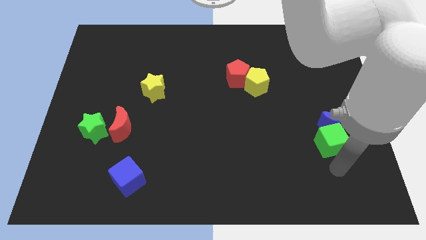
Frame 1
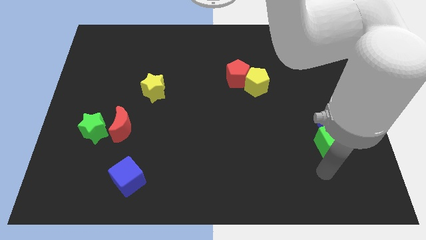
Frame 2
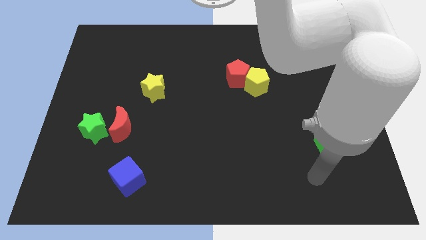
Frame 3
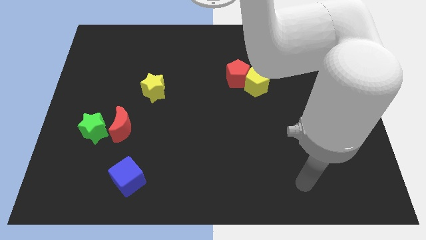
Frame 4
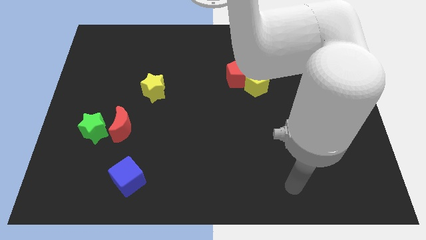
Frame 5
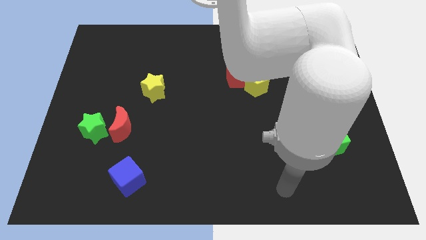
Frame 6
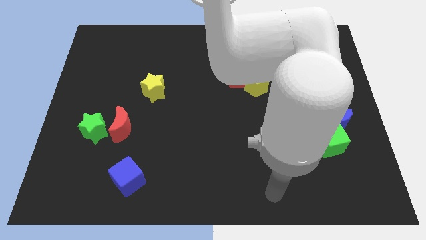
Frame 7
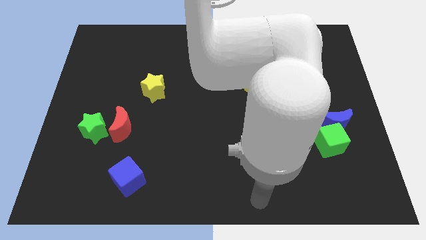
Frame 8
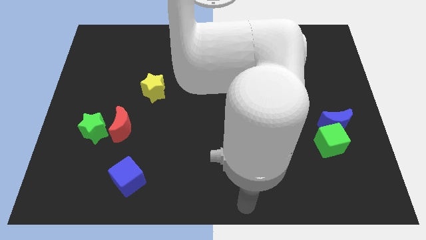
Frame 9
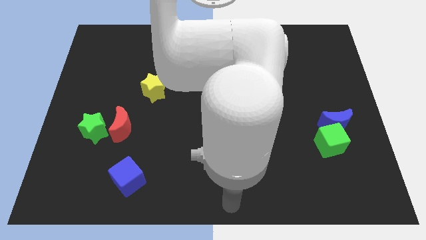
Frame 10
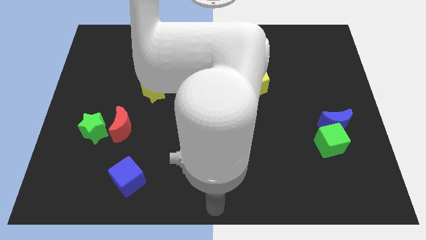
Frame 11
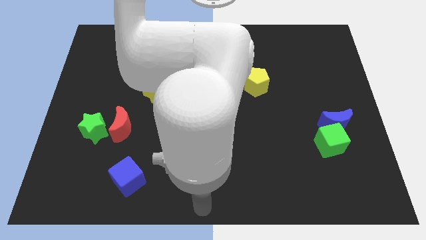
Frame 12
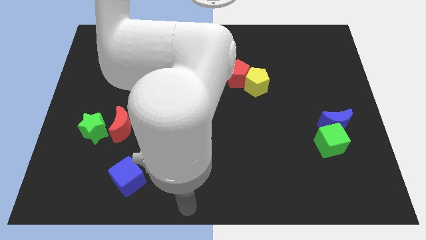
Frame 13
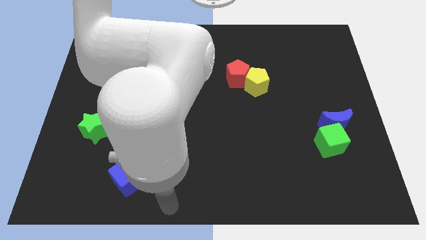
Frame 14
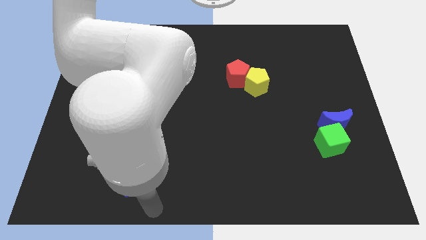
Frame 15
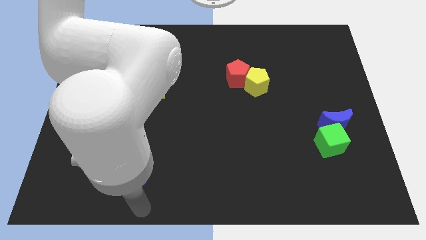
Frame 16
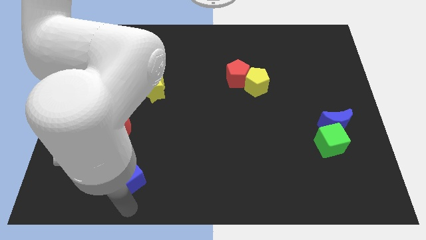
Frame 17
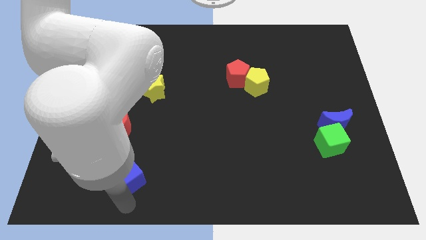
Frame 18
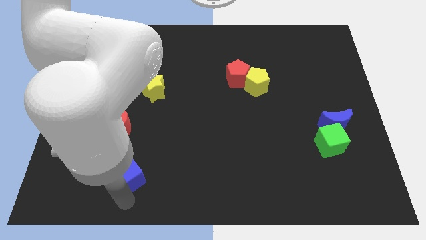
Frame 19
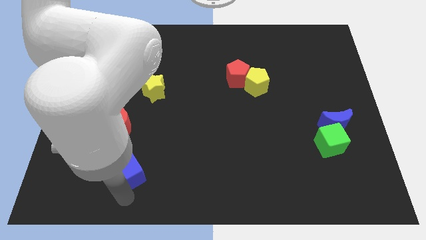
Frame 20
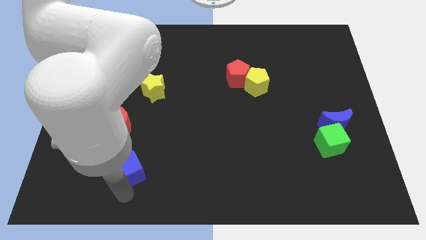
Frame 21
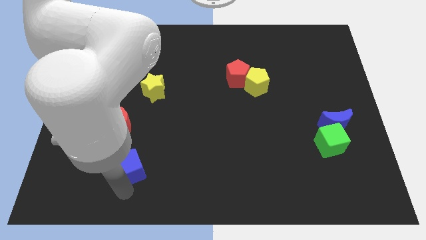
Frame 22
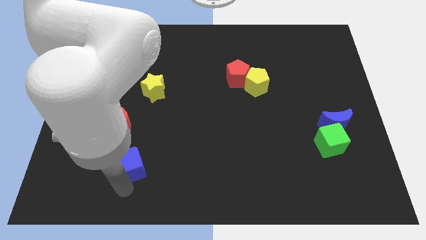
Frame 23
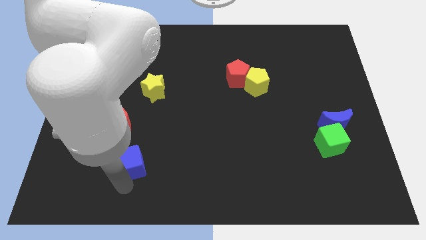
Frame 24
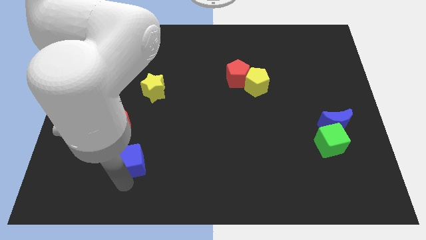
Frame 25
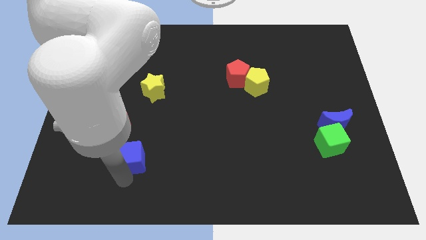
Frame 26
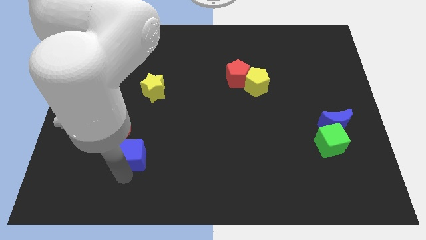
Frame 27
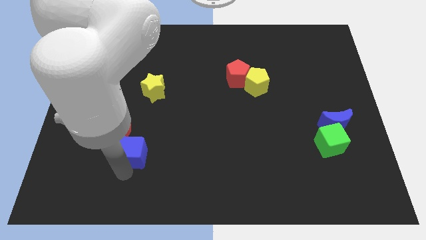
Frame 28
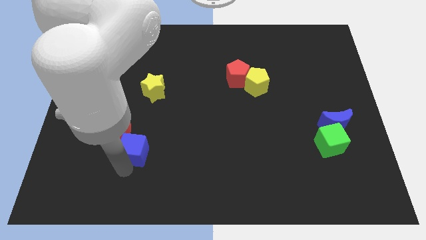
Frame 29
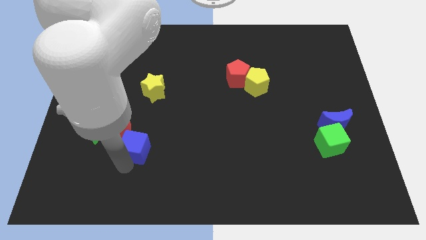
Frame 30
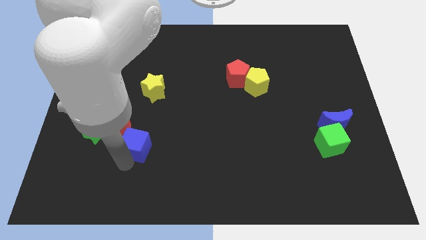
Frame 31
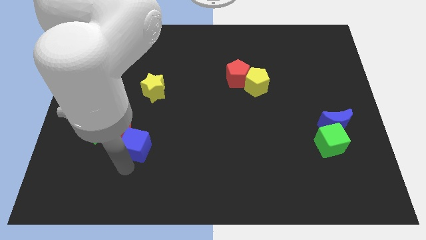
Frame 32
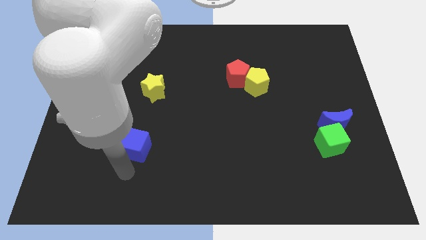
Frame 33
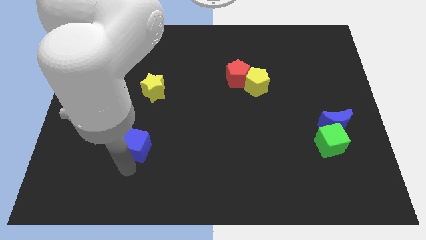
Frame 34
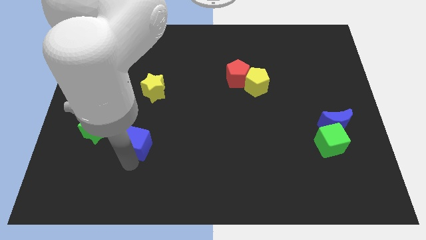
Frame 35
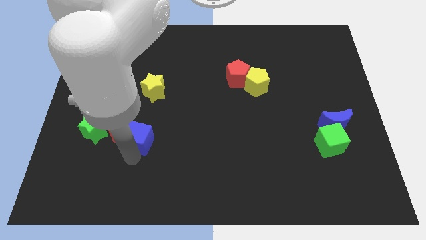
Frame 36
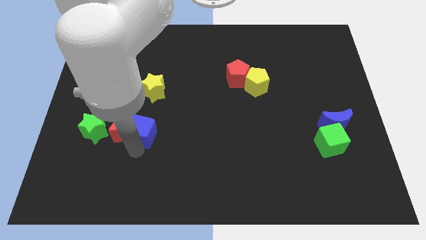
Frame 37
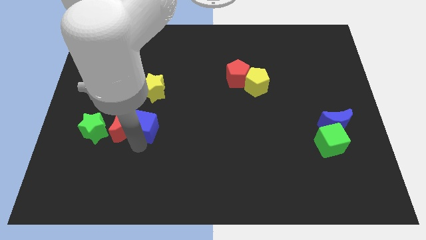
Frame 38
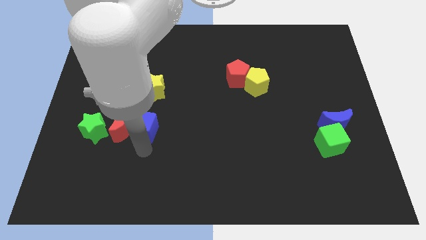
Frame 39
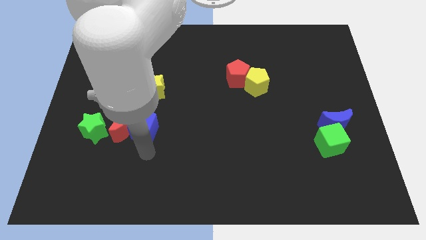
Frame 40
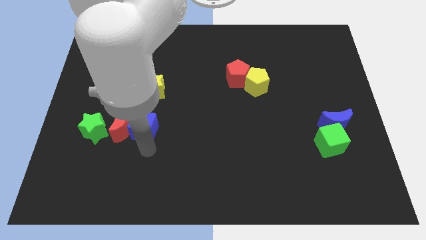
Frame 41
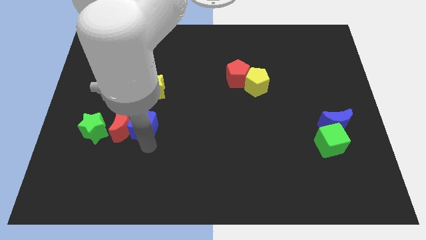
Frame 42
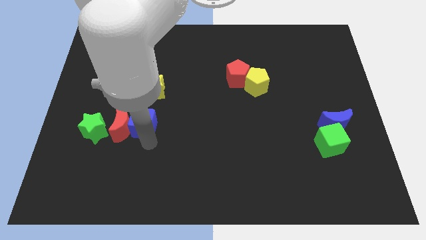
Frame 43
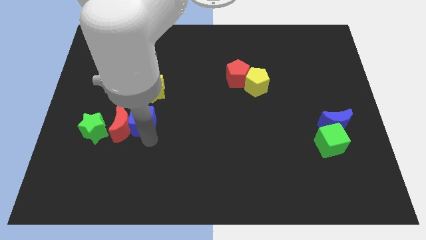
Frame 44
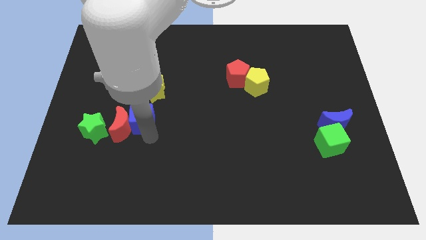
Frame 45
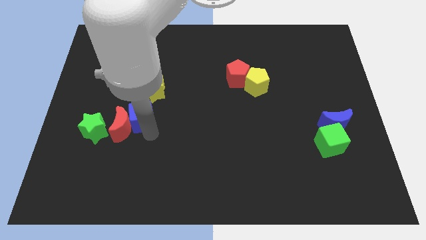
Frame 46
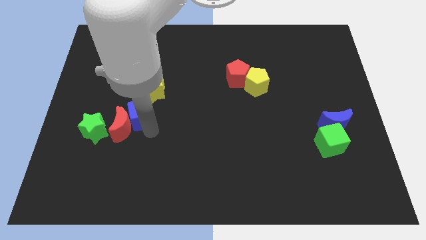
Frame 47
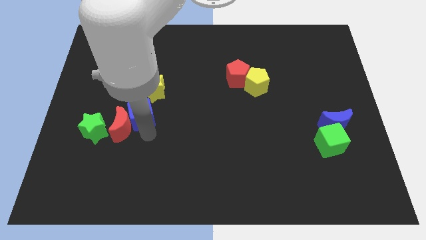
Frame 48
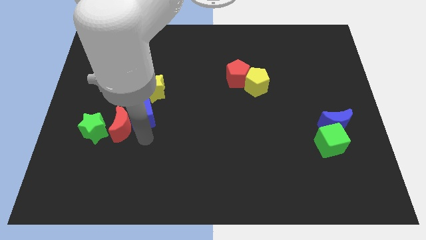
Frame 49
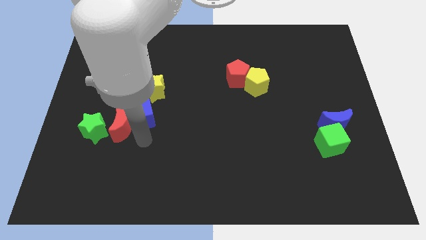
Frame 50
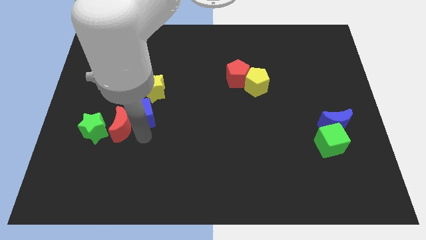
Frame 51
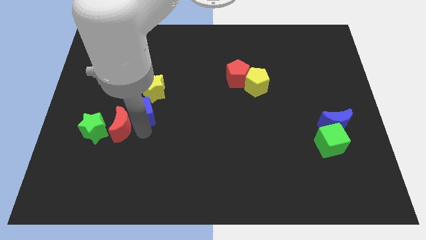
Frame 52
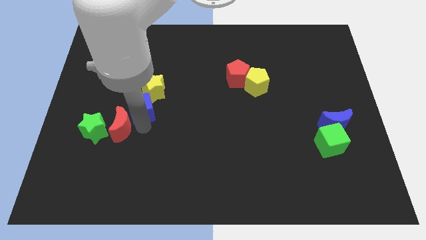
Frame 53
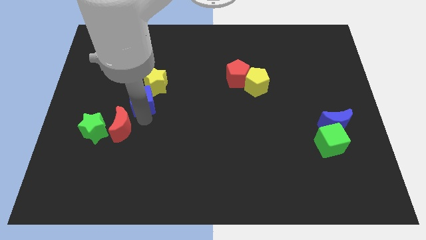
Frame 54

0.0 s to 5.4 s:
move the blue cube upwards

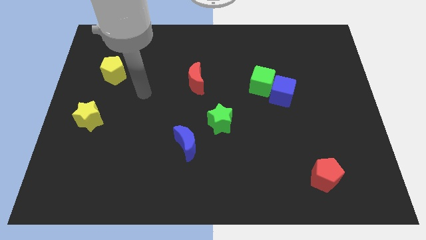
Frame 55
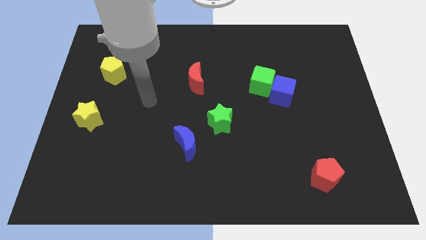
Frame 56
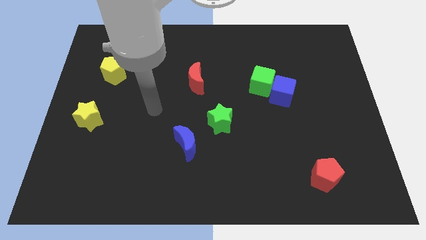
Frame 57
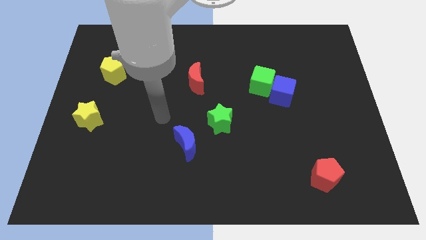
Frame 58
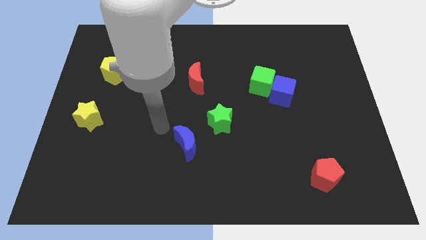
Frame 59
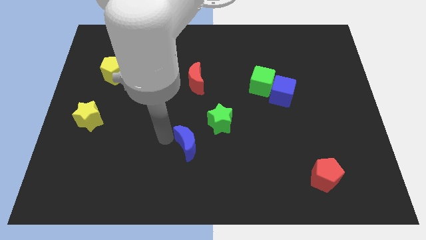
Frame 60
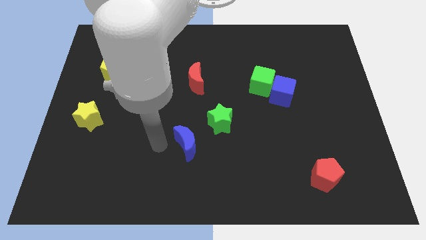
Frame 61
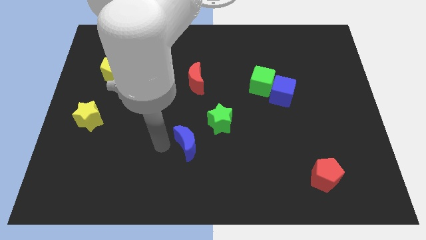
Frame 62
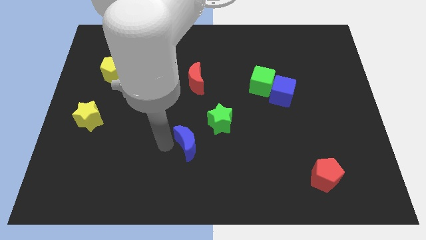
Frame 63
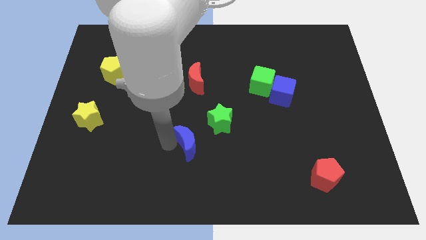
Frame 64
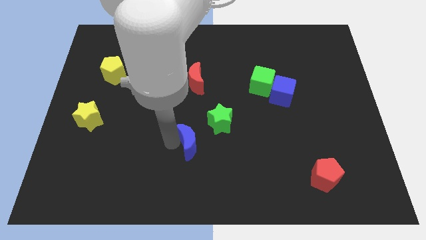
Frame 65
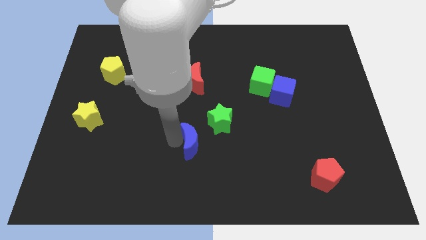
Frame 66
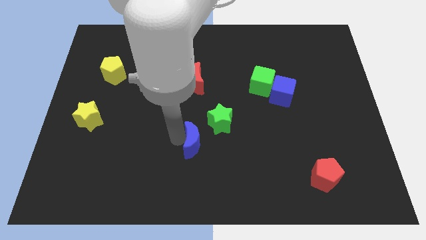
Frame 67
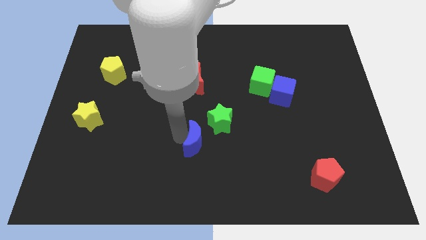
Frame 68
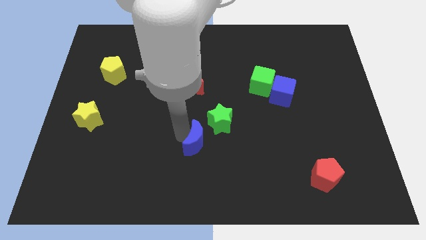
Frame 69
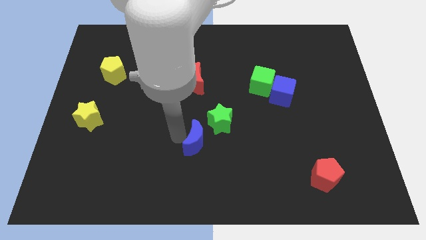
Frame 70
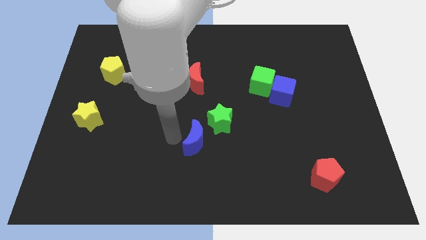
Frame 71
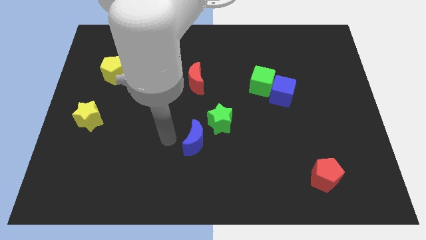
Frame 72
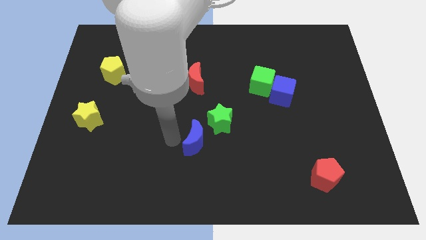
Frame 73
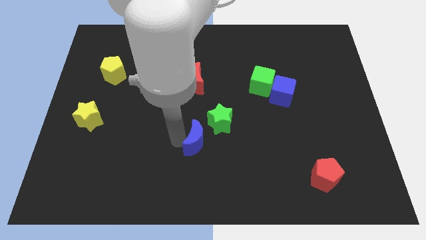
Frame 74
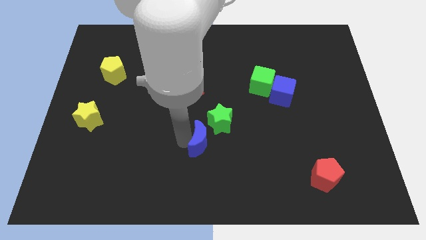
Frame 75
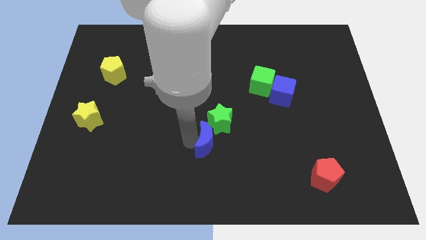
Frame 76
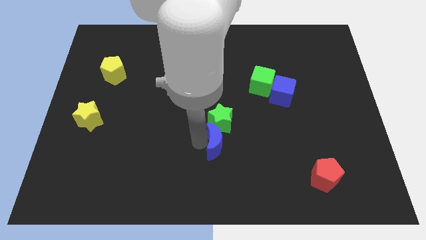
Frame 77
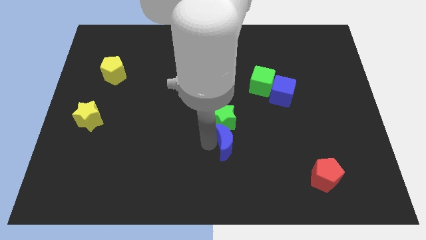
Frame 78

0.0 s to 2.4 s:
slide the blue moon somewhat right

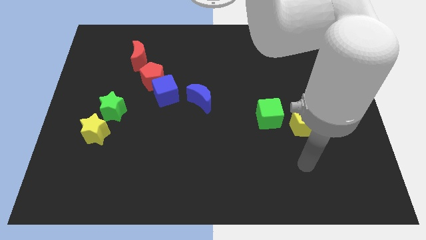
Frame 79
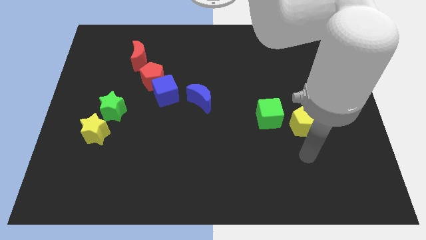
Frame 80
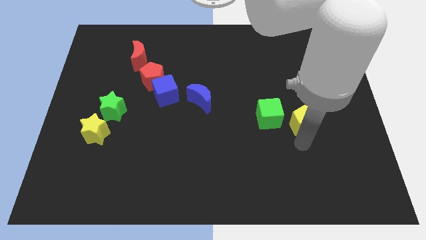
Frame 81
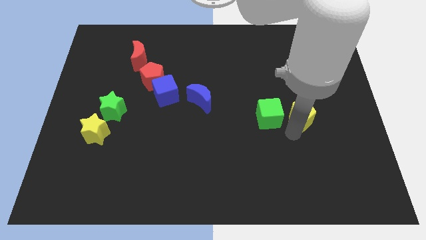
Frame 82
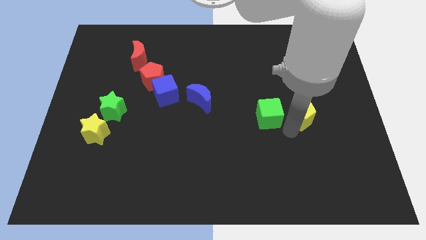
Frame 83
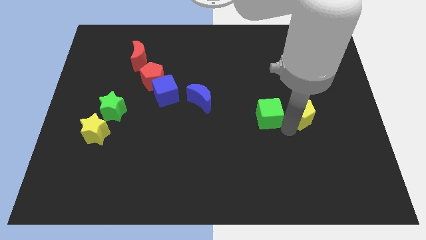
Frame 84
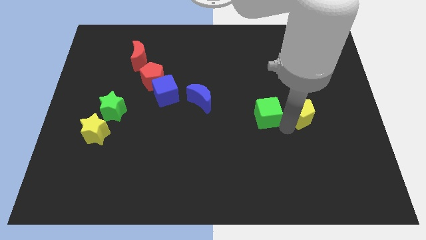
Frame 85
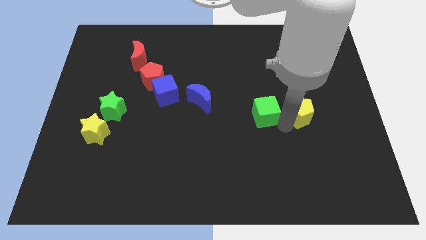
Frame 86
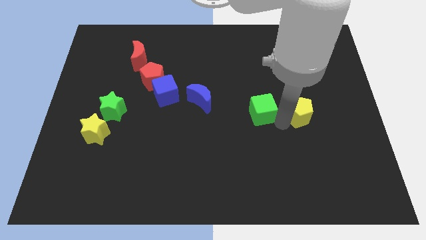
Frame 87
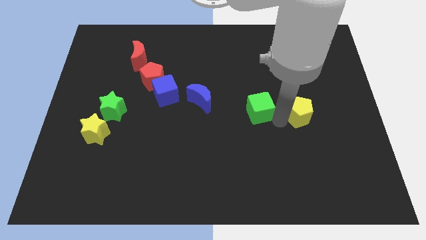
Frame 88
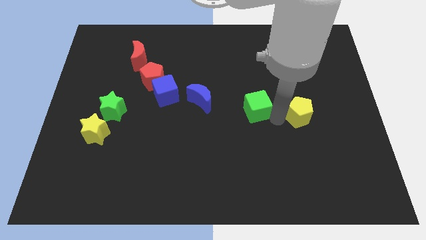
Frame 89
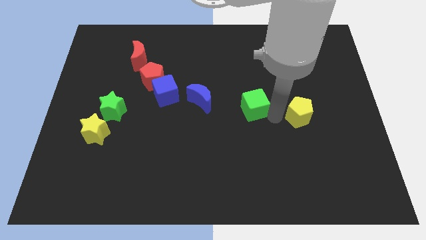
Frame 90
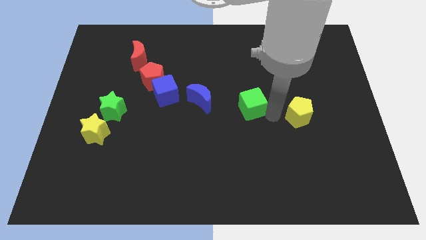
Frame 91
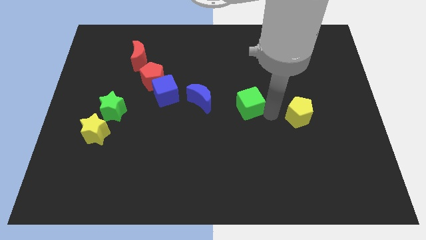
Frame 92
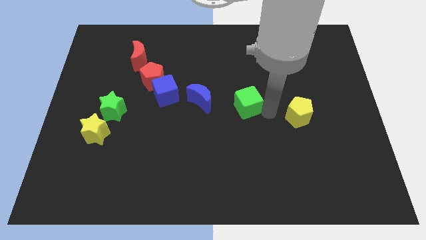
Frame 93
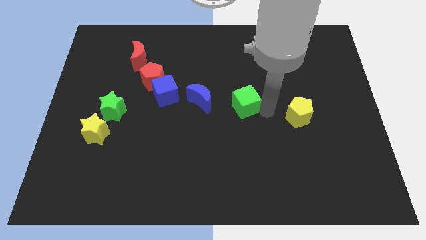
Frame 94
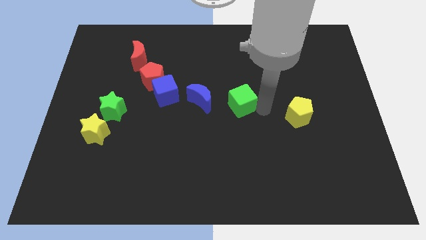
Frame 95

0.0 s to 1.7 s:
slightly move the green cube upwards and left diagonally
